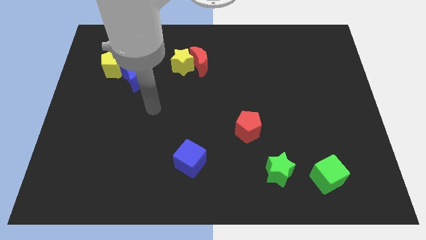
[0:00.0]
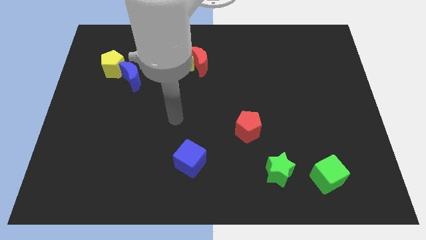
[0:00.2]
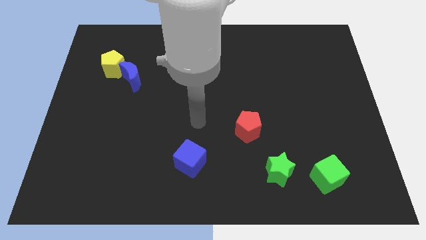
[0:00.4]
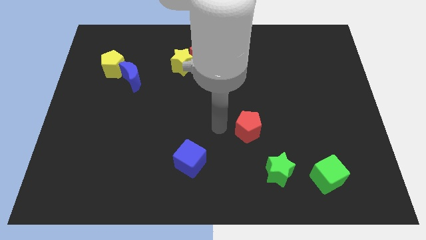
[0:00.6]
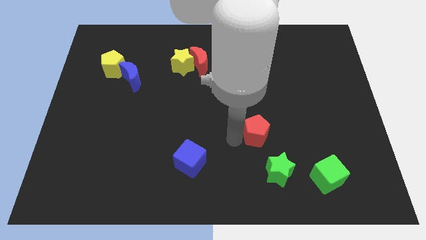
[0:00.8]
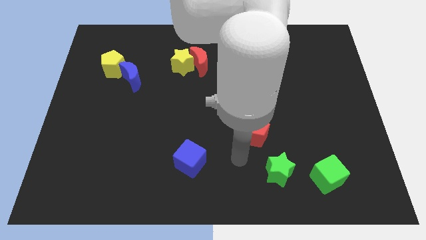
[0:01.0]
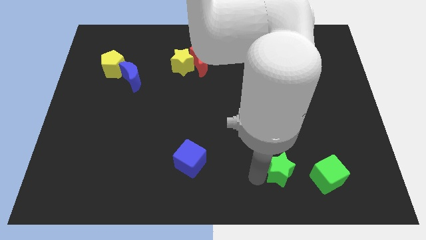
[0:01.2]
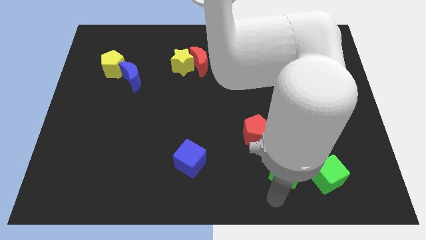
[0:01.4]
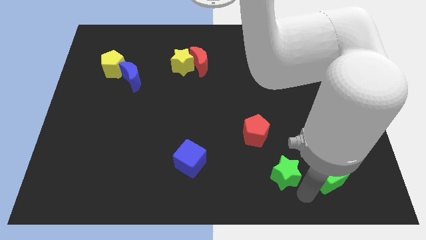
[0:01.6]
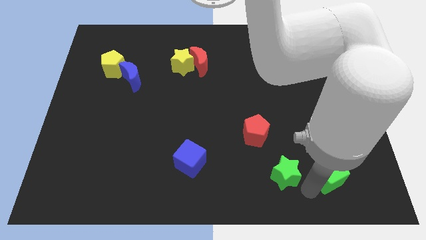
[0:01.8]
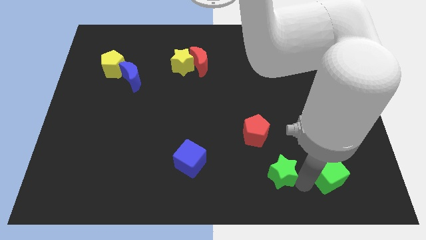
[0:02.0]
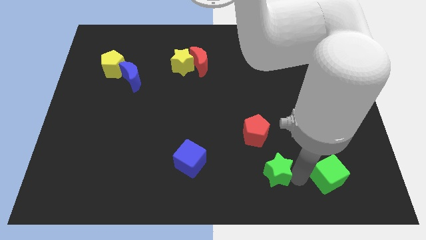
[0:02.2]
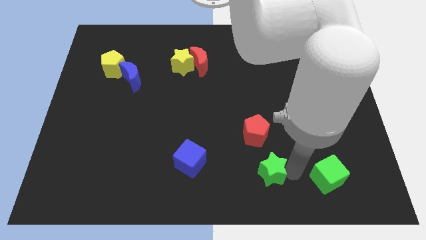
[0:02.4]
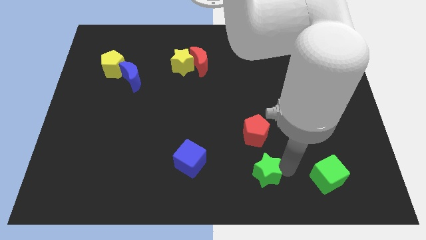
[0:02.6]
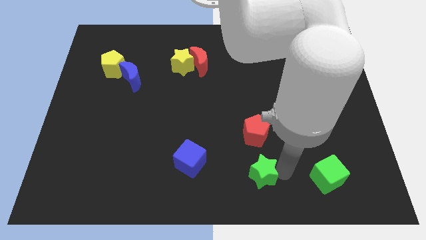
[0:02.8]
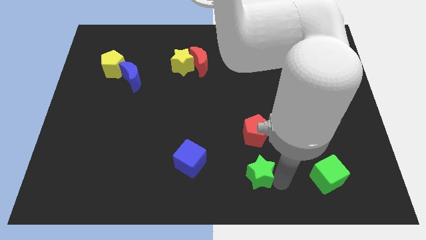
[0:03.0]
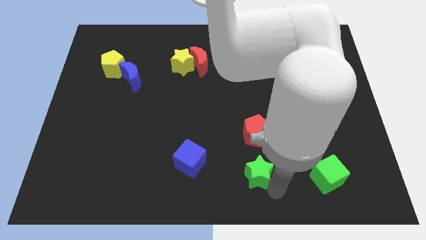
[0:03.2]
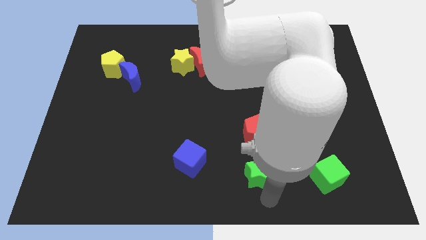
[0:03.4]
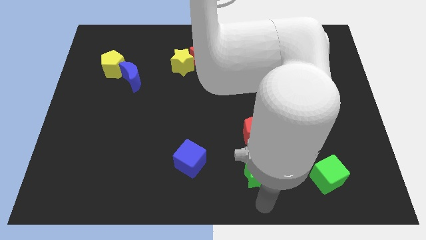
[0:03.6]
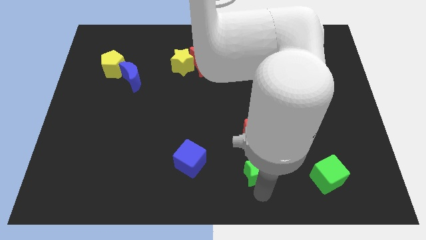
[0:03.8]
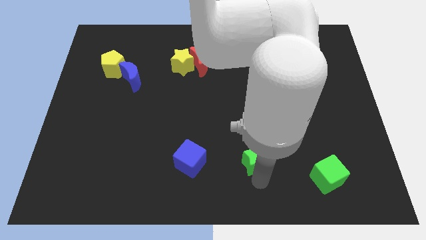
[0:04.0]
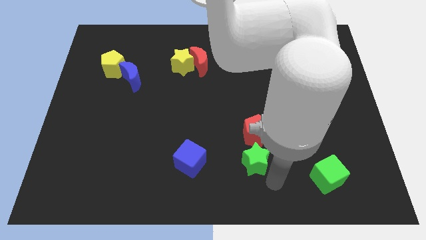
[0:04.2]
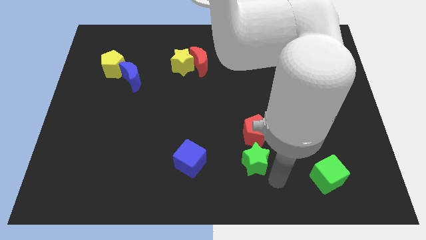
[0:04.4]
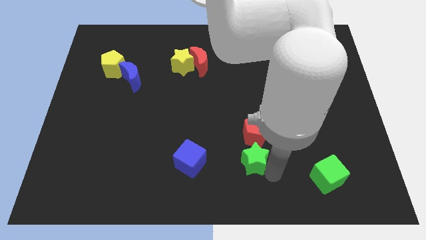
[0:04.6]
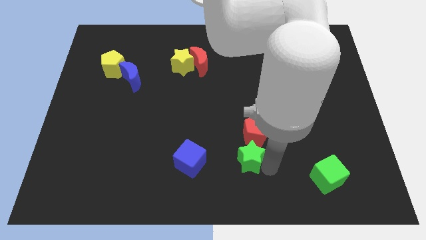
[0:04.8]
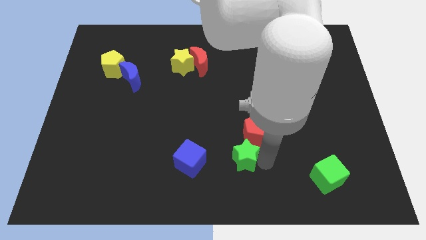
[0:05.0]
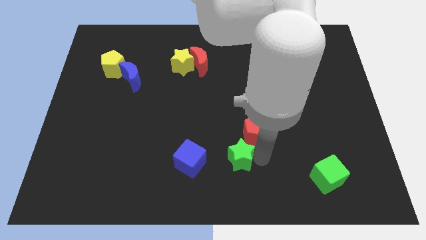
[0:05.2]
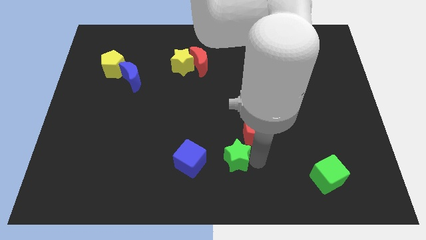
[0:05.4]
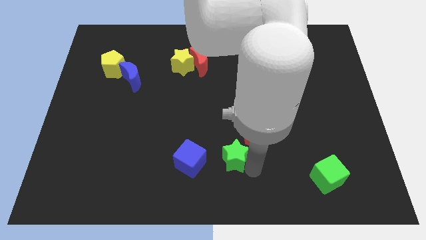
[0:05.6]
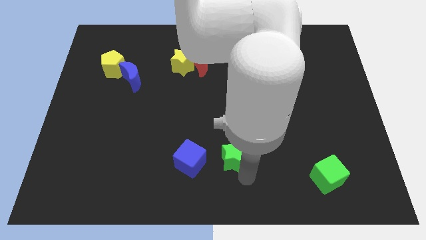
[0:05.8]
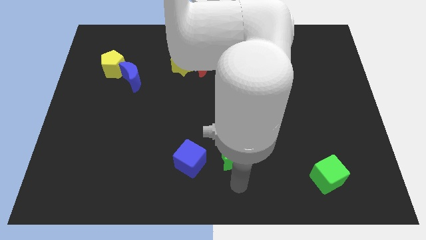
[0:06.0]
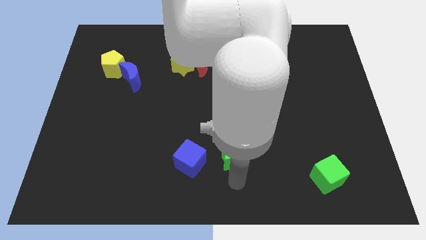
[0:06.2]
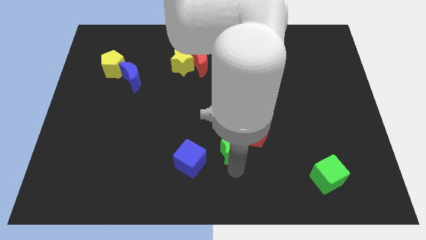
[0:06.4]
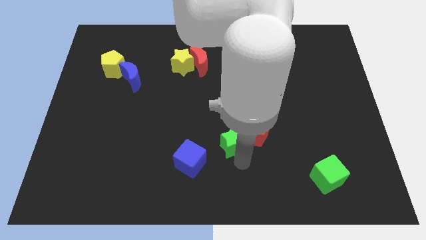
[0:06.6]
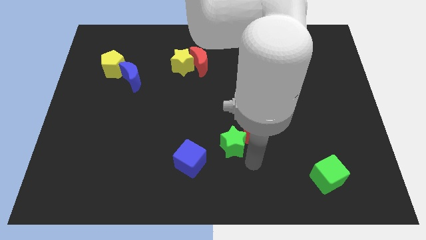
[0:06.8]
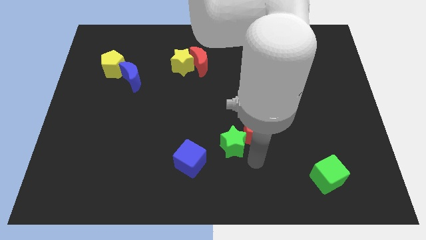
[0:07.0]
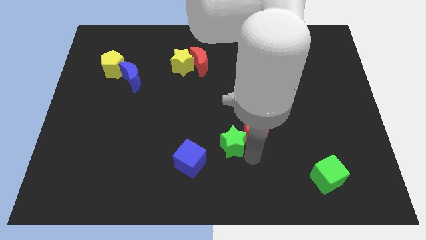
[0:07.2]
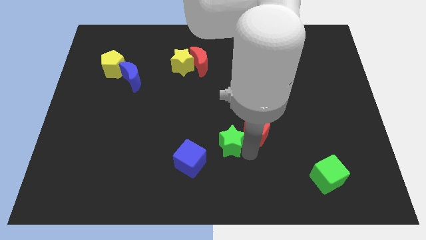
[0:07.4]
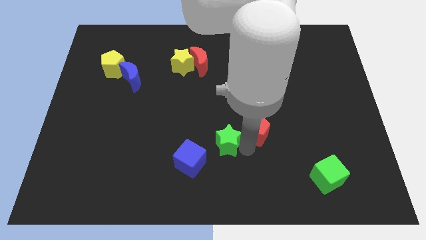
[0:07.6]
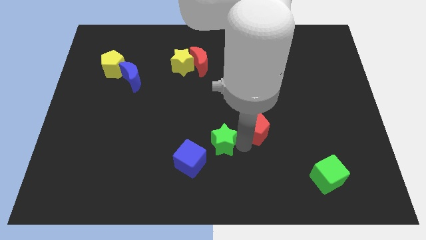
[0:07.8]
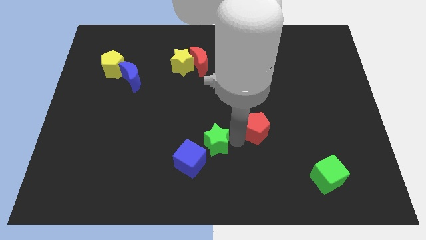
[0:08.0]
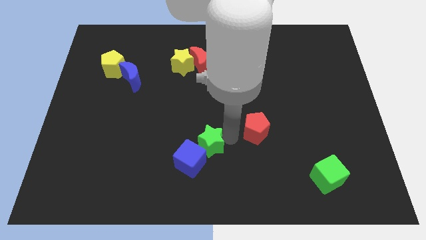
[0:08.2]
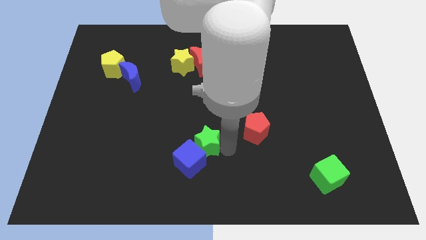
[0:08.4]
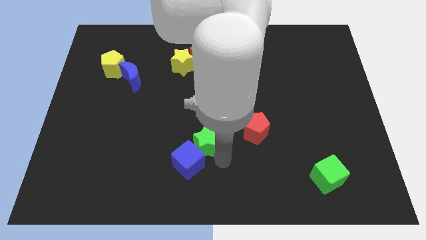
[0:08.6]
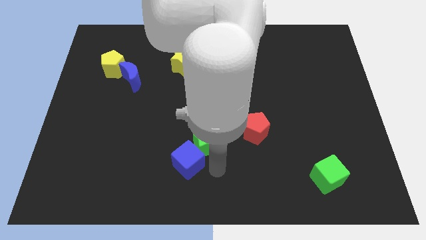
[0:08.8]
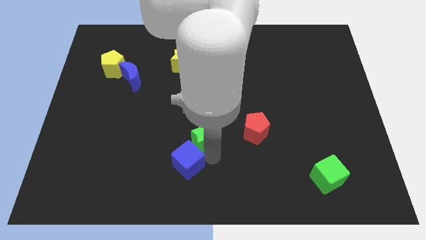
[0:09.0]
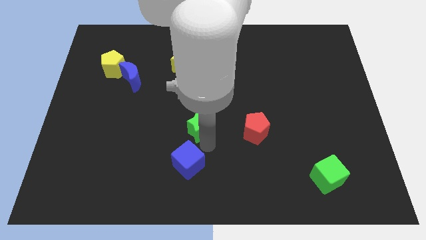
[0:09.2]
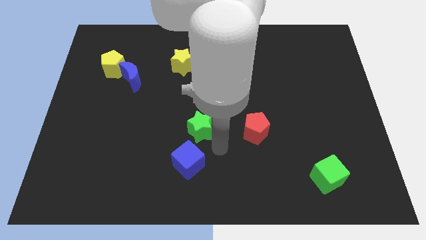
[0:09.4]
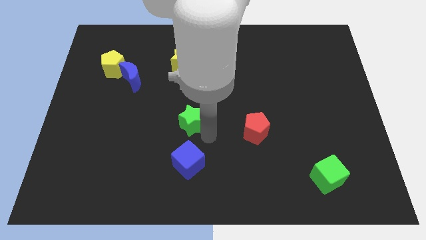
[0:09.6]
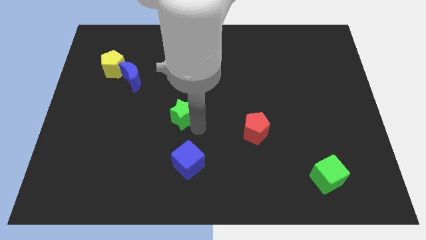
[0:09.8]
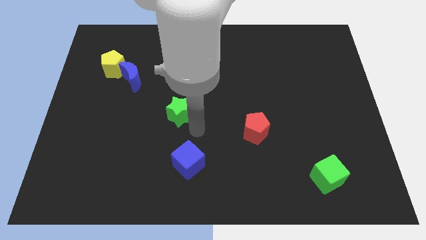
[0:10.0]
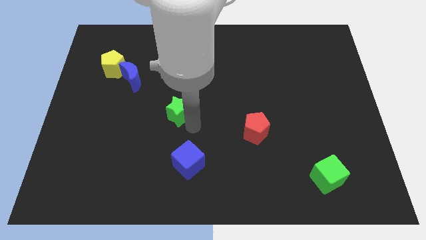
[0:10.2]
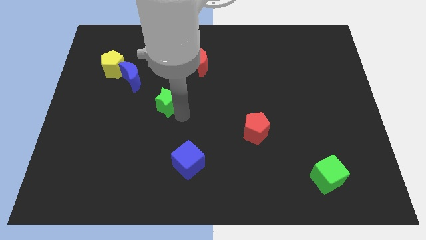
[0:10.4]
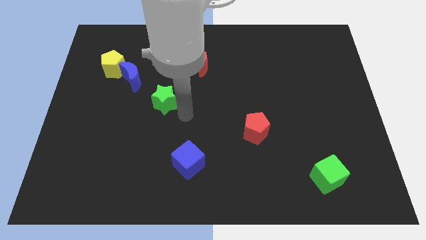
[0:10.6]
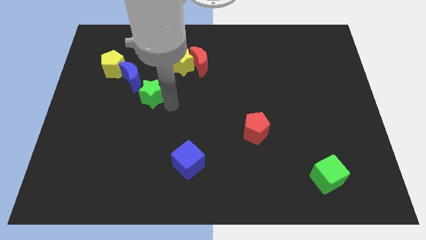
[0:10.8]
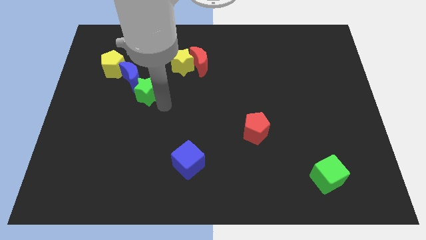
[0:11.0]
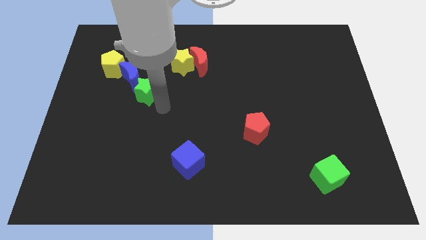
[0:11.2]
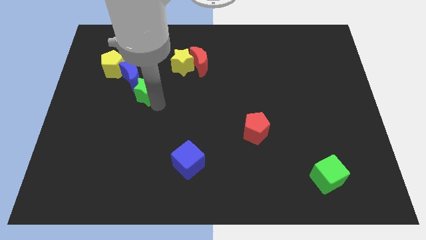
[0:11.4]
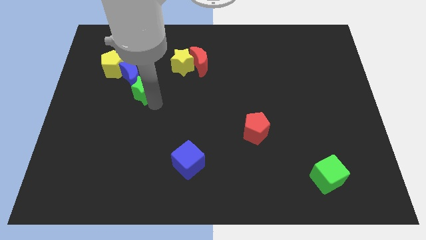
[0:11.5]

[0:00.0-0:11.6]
push the green star to the blue moon

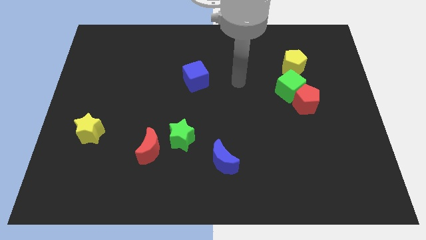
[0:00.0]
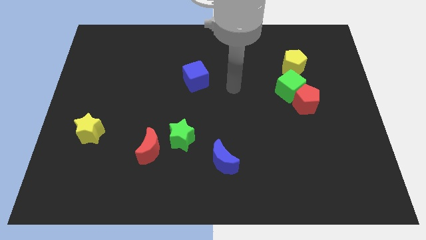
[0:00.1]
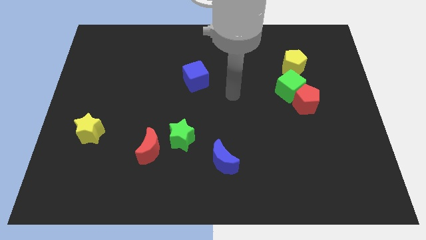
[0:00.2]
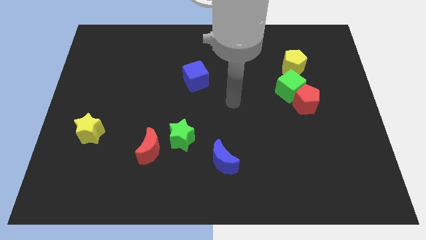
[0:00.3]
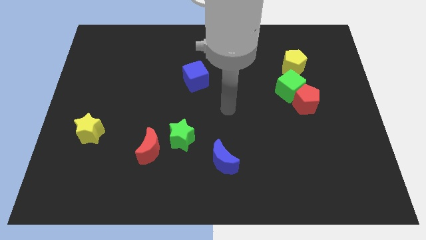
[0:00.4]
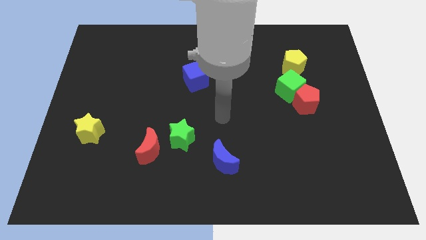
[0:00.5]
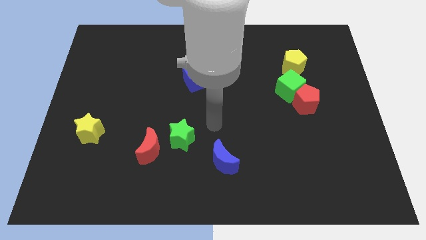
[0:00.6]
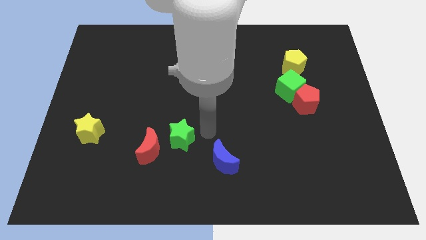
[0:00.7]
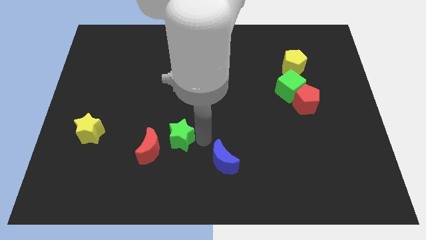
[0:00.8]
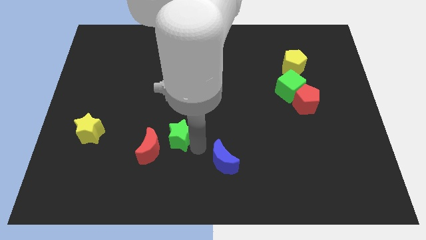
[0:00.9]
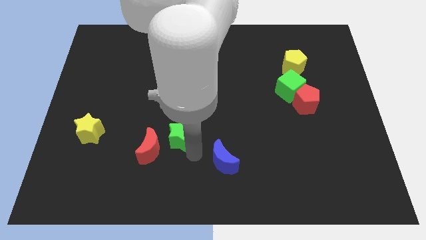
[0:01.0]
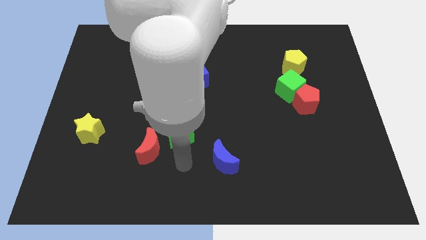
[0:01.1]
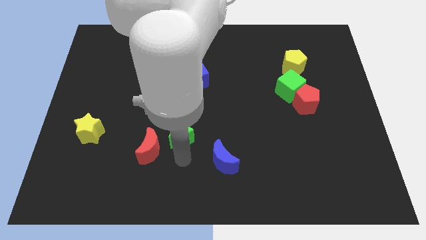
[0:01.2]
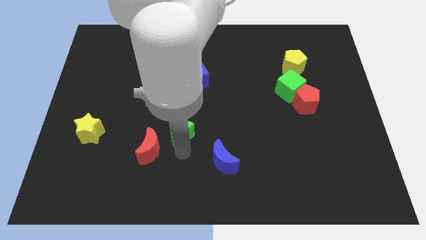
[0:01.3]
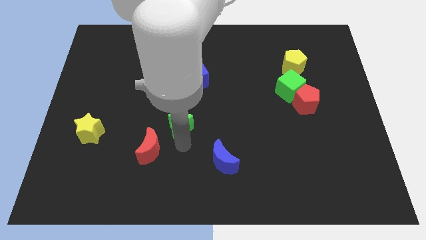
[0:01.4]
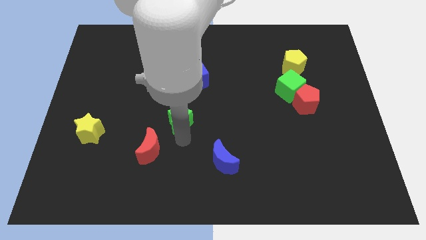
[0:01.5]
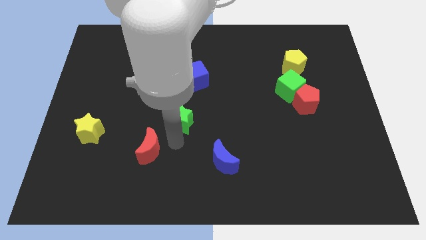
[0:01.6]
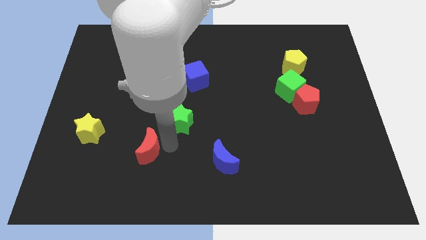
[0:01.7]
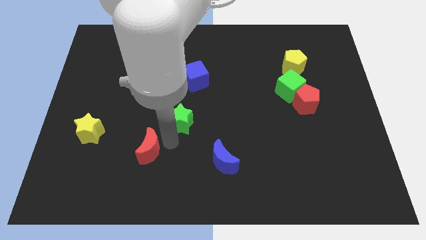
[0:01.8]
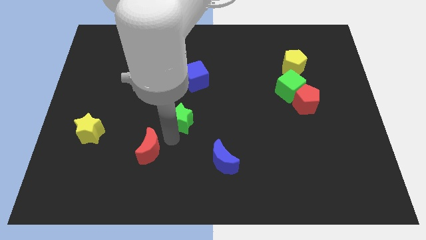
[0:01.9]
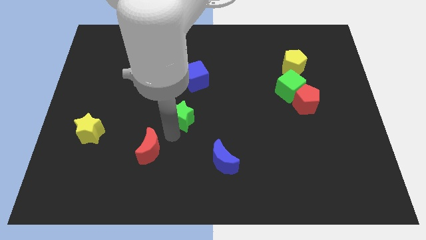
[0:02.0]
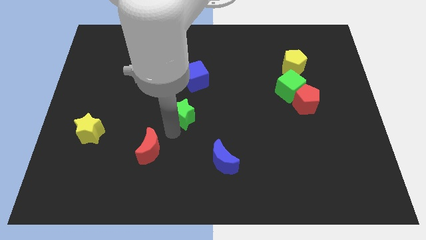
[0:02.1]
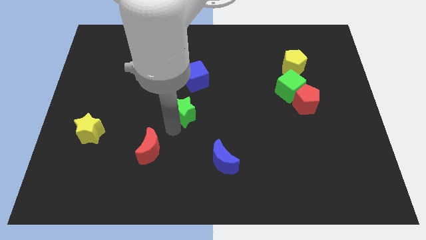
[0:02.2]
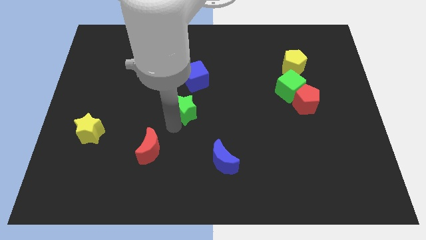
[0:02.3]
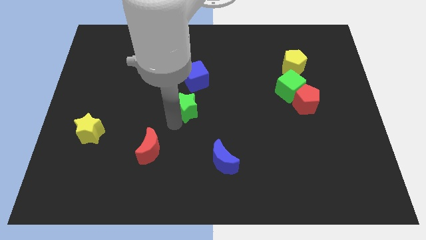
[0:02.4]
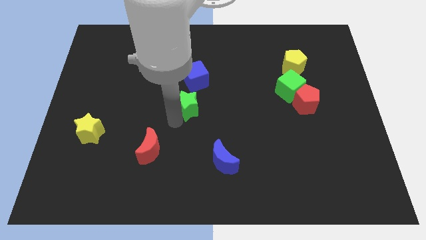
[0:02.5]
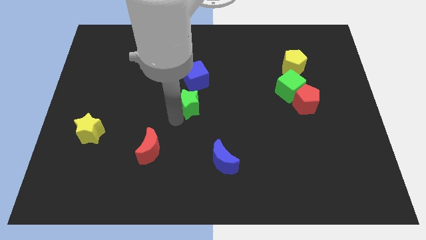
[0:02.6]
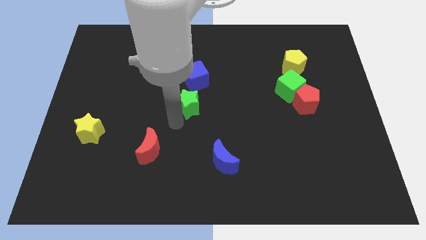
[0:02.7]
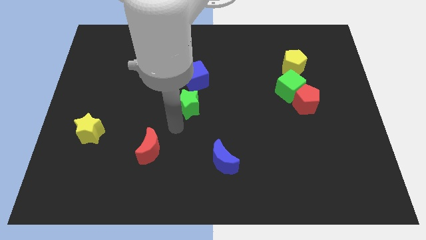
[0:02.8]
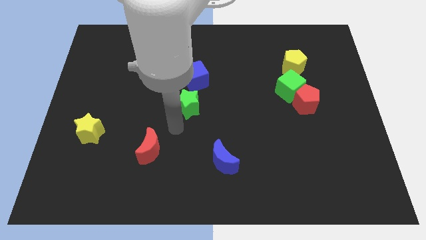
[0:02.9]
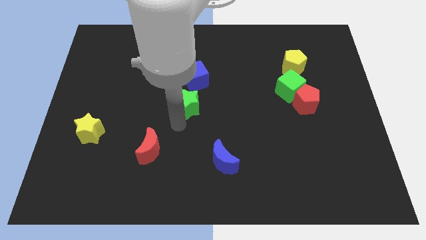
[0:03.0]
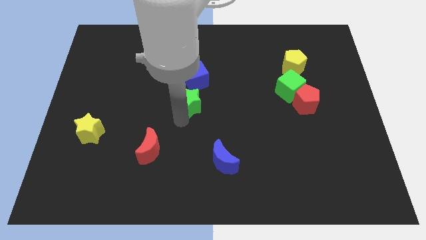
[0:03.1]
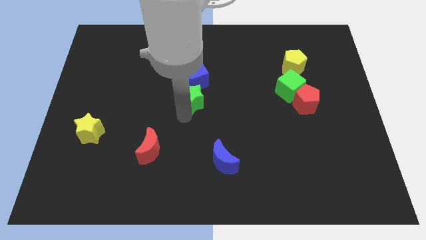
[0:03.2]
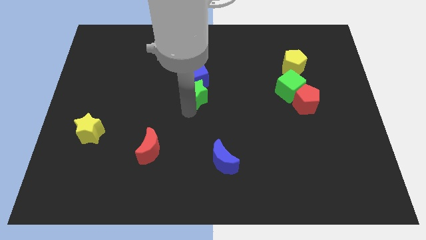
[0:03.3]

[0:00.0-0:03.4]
put the green star next to the blue cube
